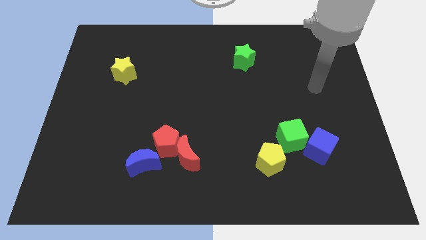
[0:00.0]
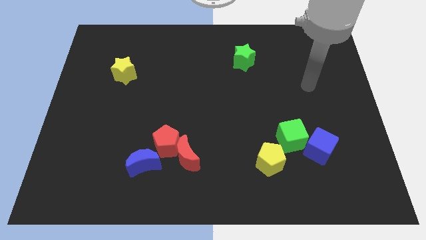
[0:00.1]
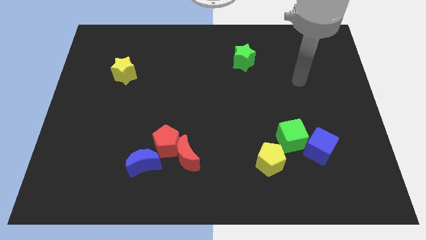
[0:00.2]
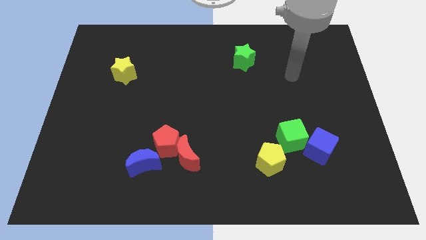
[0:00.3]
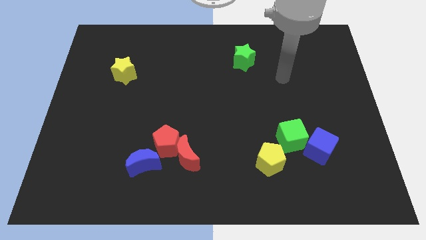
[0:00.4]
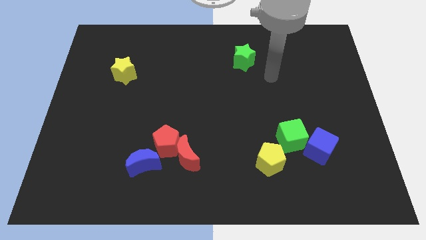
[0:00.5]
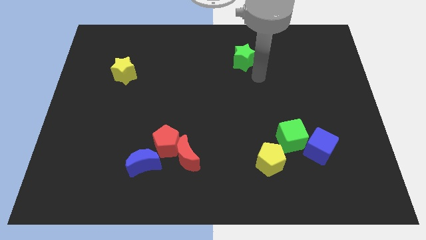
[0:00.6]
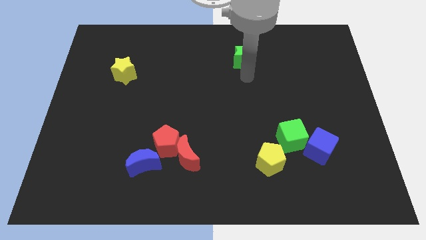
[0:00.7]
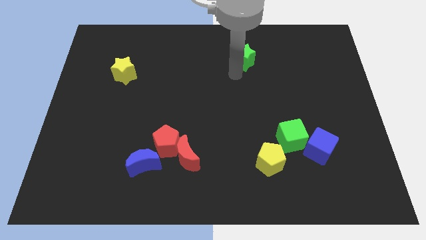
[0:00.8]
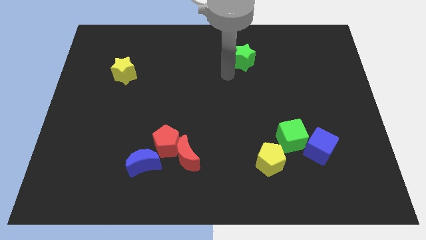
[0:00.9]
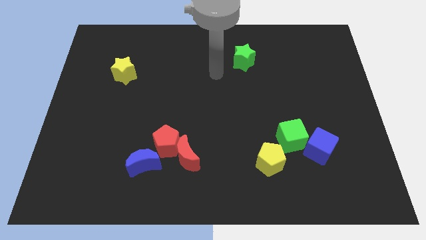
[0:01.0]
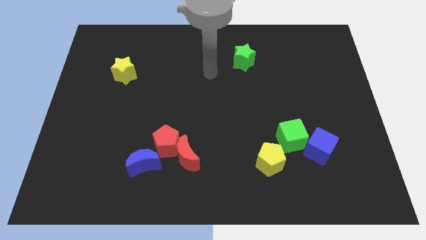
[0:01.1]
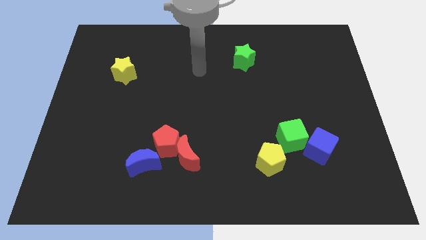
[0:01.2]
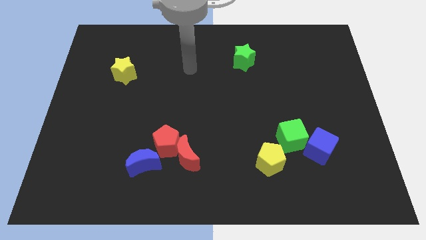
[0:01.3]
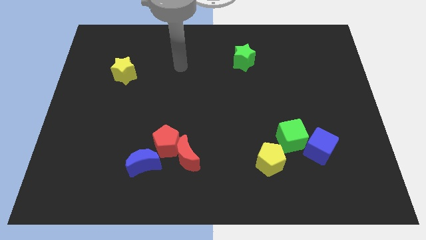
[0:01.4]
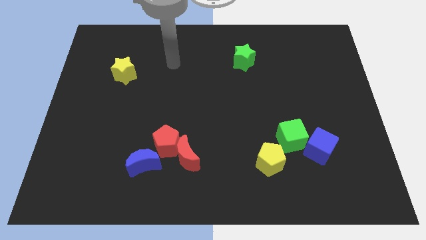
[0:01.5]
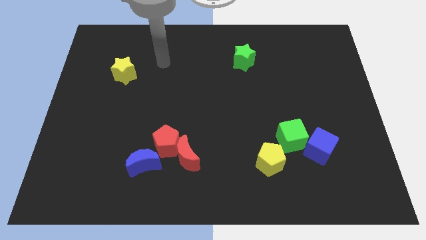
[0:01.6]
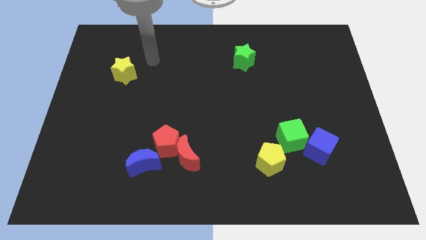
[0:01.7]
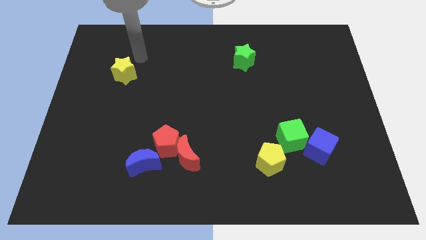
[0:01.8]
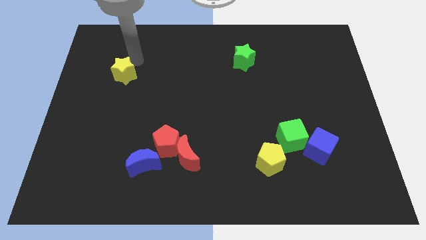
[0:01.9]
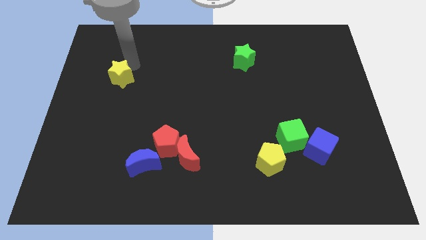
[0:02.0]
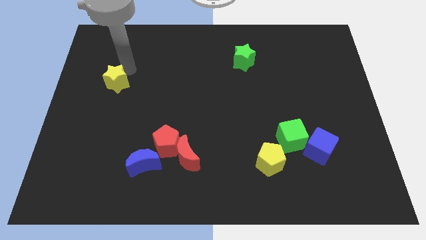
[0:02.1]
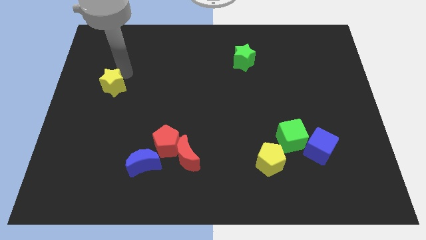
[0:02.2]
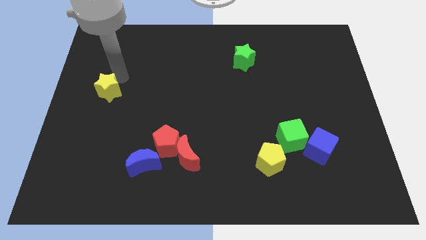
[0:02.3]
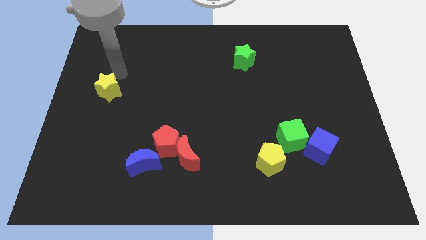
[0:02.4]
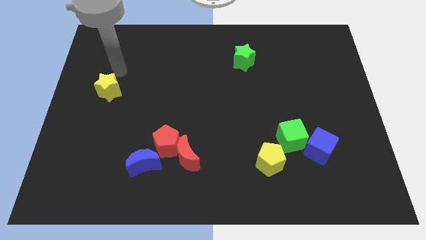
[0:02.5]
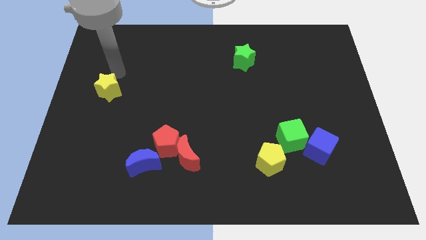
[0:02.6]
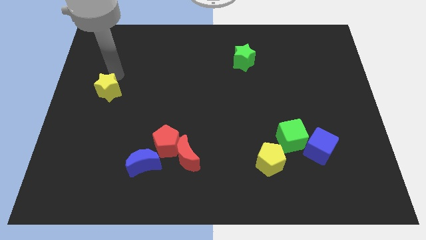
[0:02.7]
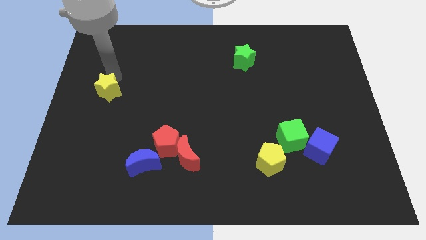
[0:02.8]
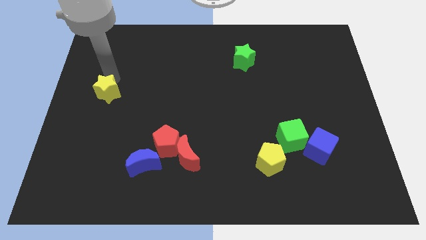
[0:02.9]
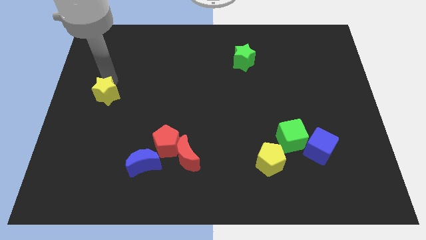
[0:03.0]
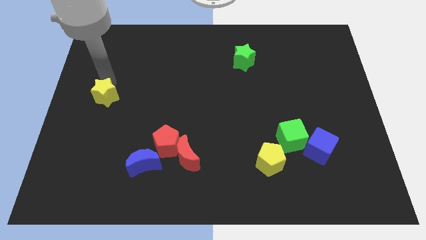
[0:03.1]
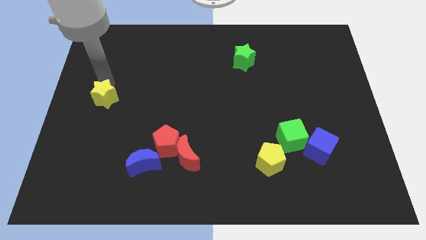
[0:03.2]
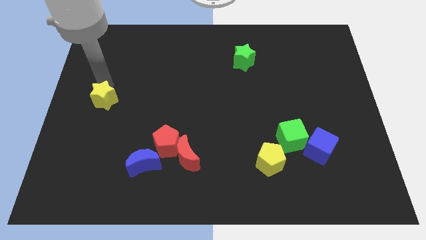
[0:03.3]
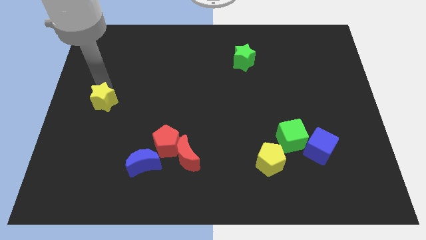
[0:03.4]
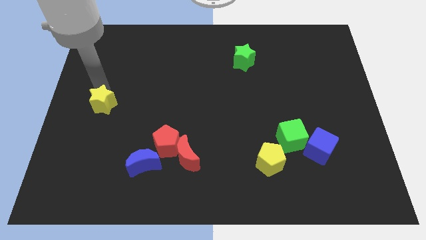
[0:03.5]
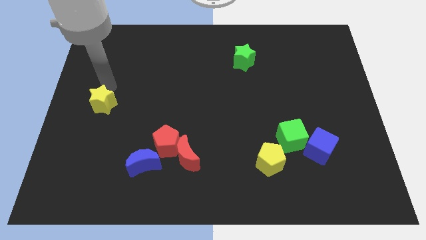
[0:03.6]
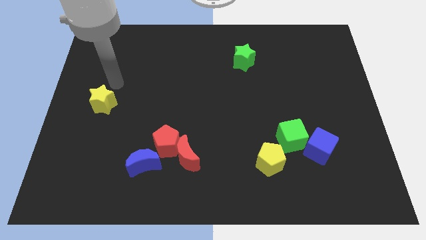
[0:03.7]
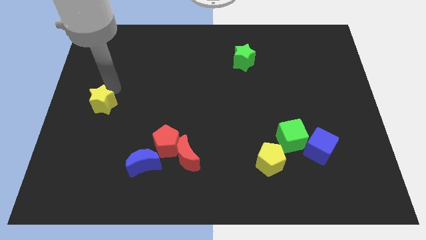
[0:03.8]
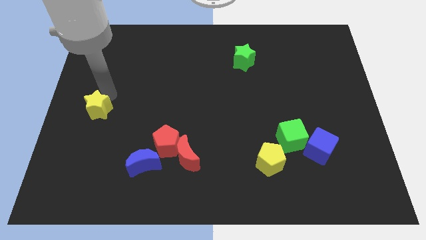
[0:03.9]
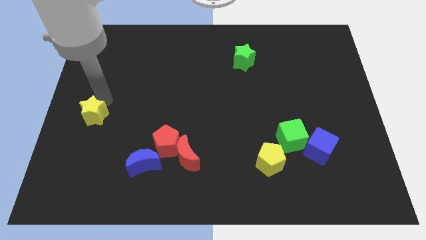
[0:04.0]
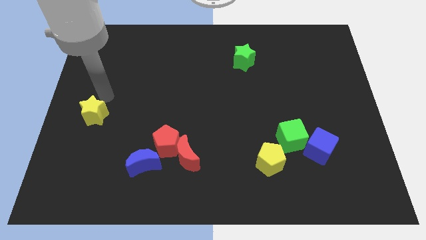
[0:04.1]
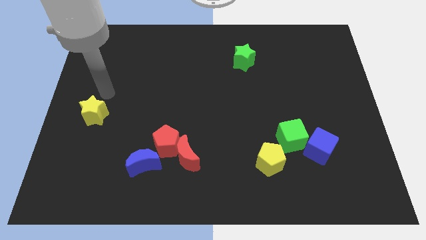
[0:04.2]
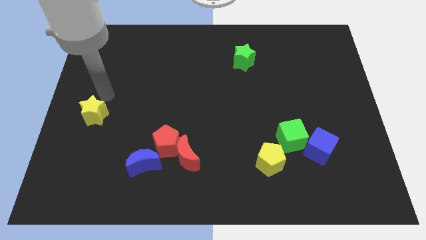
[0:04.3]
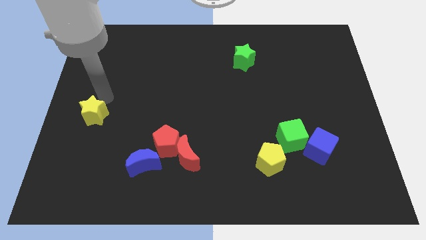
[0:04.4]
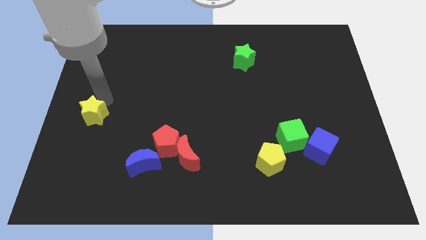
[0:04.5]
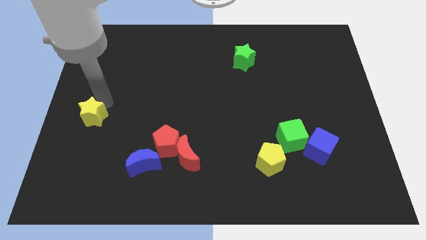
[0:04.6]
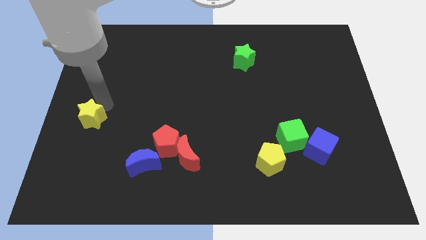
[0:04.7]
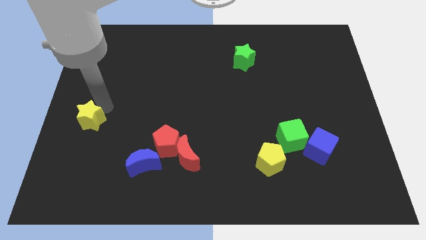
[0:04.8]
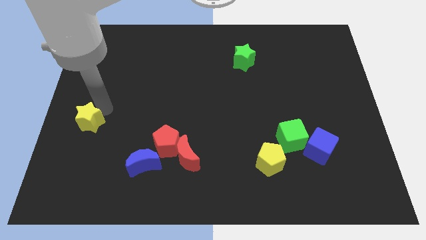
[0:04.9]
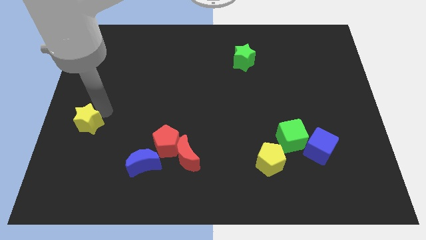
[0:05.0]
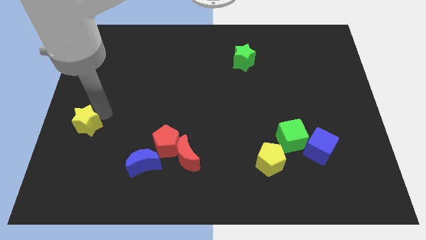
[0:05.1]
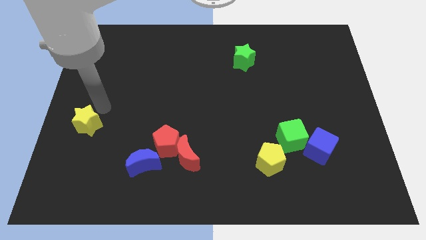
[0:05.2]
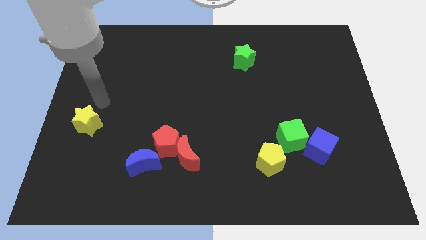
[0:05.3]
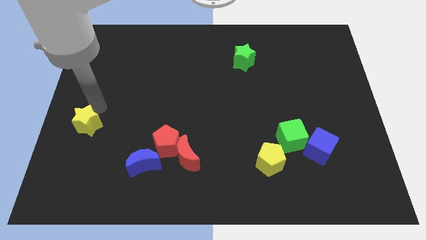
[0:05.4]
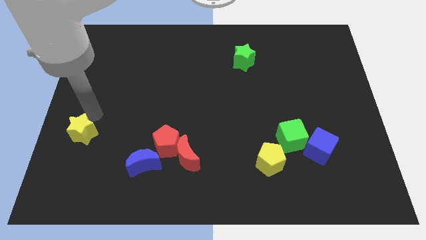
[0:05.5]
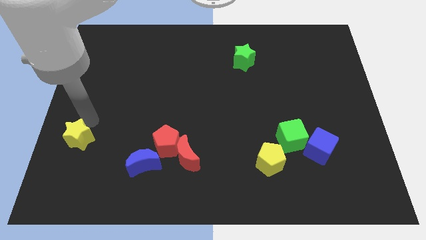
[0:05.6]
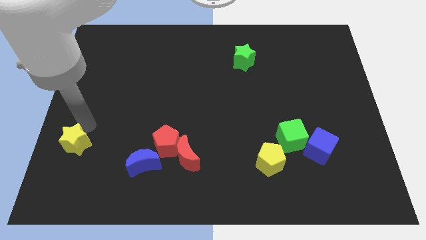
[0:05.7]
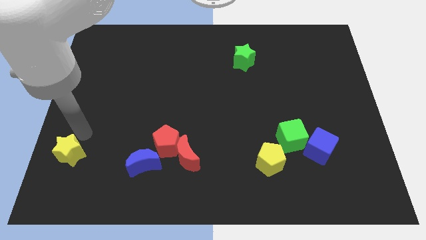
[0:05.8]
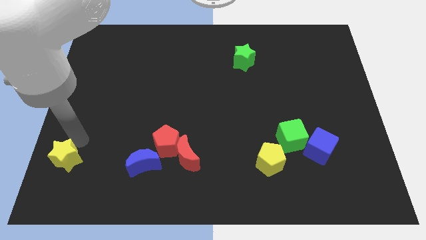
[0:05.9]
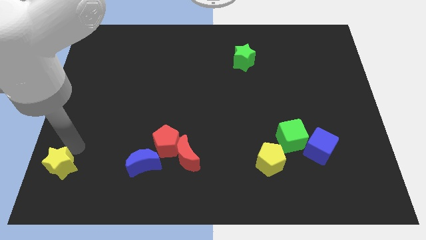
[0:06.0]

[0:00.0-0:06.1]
move the yellow star to the bottom left
